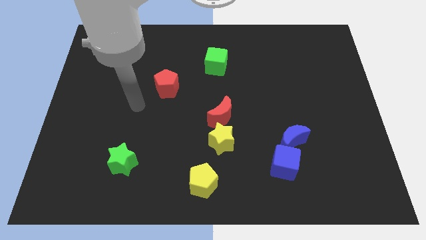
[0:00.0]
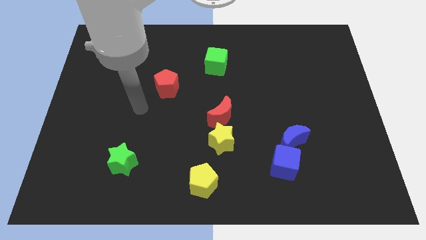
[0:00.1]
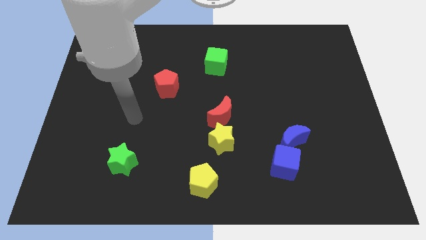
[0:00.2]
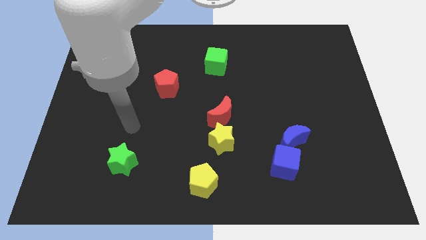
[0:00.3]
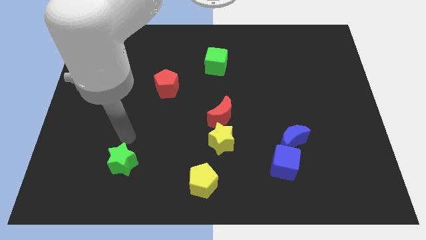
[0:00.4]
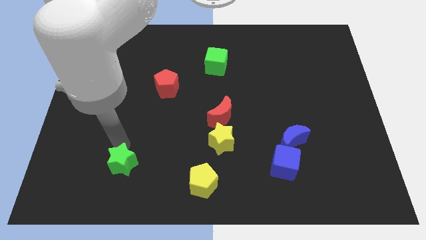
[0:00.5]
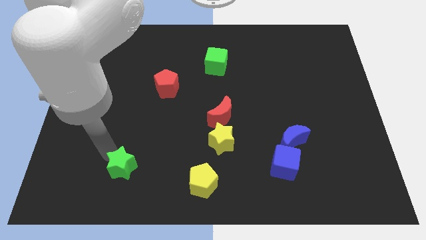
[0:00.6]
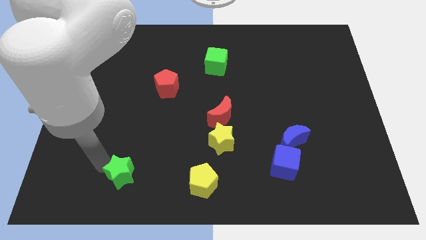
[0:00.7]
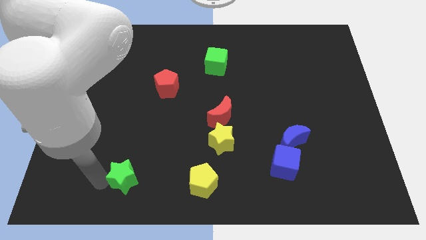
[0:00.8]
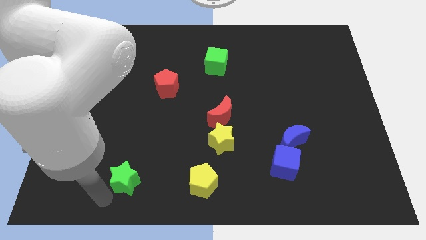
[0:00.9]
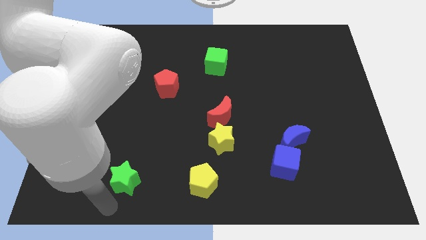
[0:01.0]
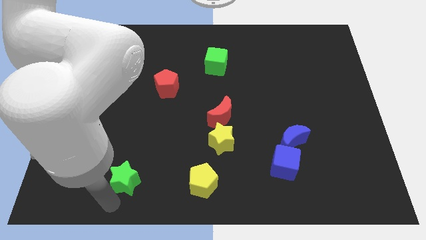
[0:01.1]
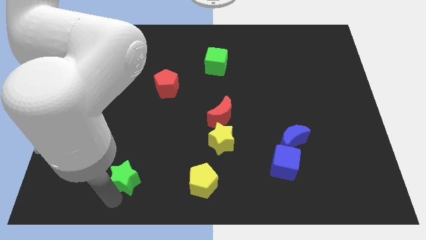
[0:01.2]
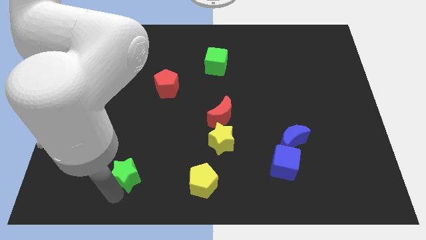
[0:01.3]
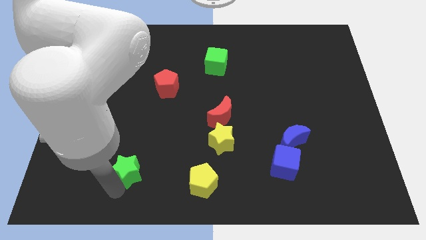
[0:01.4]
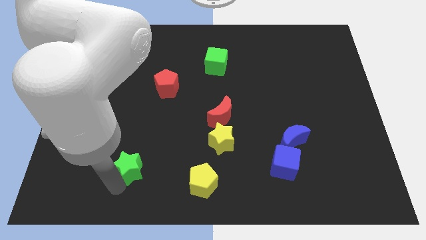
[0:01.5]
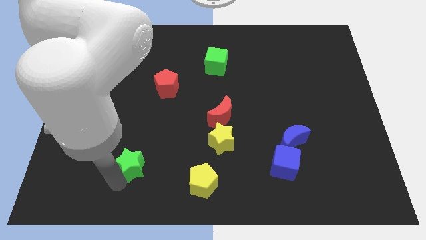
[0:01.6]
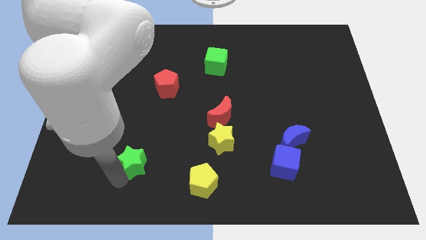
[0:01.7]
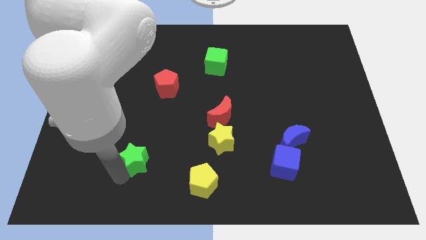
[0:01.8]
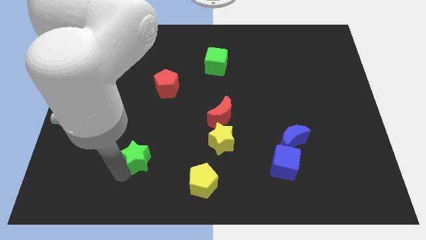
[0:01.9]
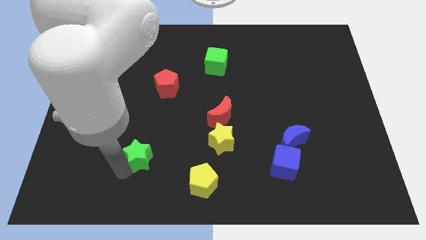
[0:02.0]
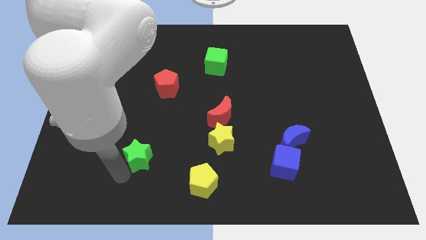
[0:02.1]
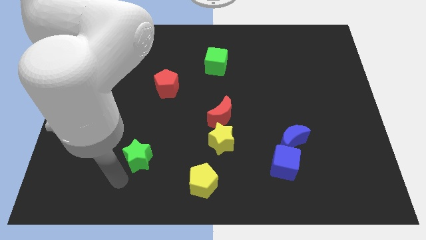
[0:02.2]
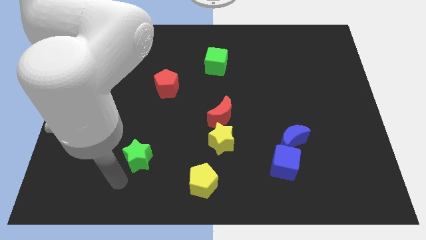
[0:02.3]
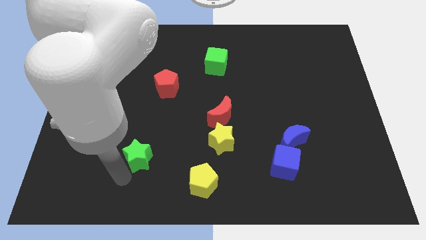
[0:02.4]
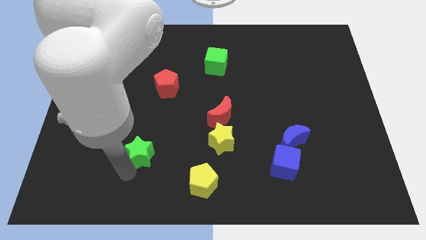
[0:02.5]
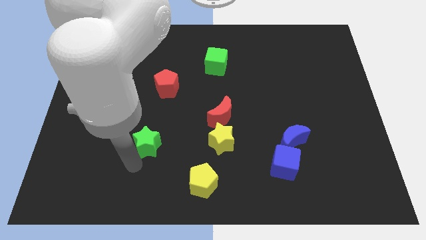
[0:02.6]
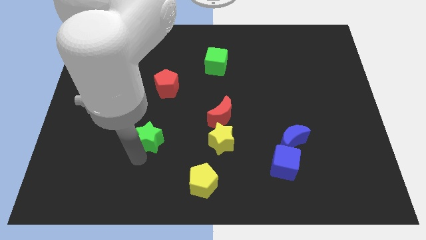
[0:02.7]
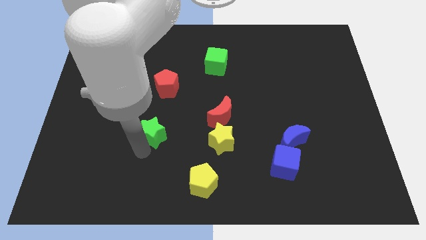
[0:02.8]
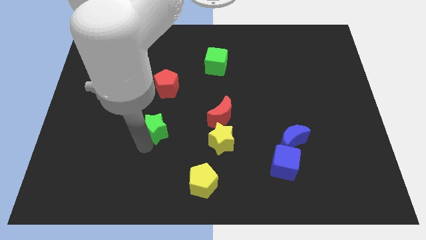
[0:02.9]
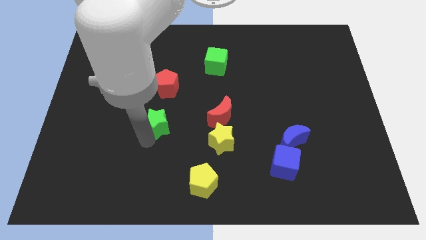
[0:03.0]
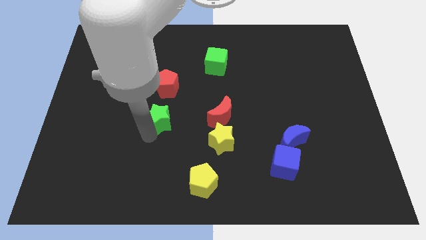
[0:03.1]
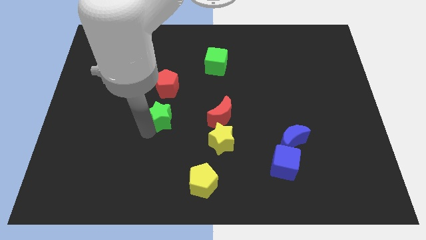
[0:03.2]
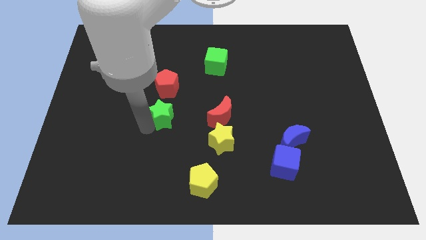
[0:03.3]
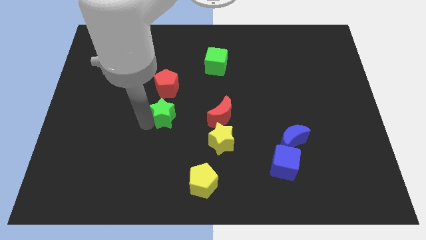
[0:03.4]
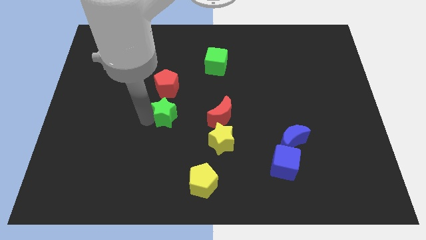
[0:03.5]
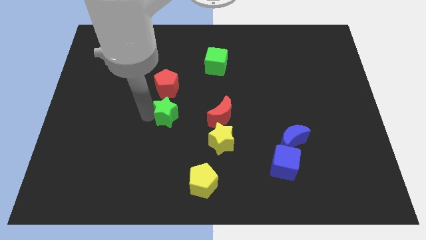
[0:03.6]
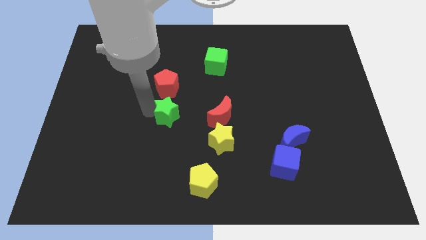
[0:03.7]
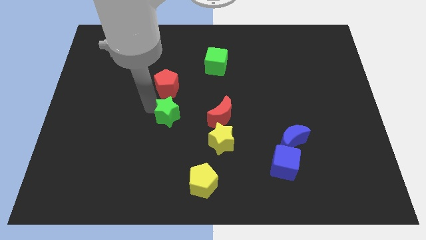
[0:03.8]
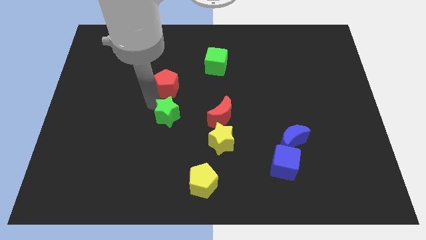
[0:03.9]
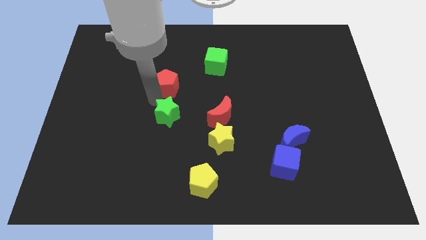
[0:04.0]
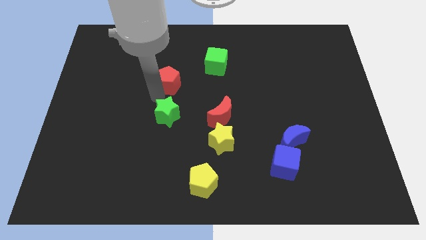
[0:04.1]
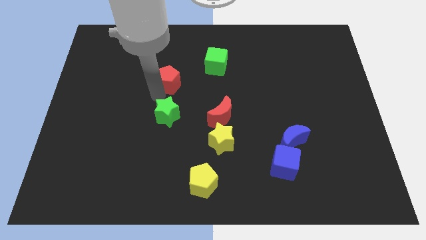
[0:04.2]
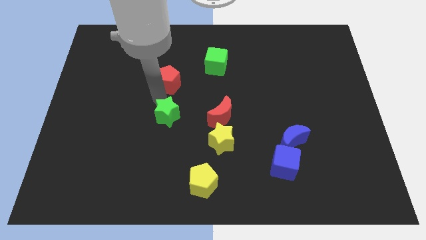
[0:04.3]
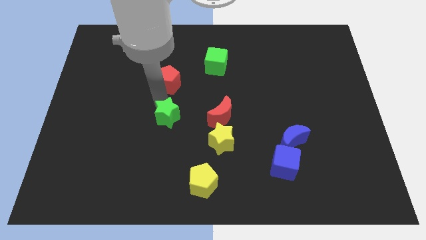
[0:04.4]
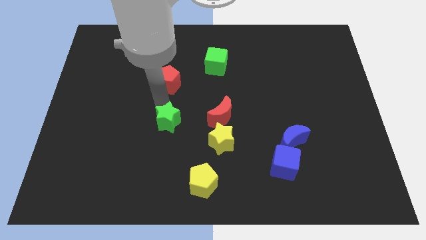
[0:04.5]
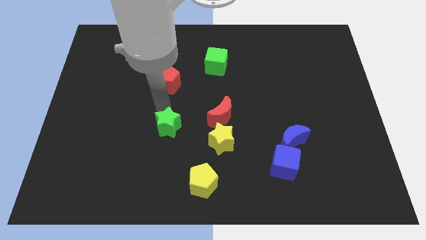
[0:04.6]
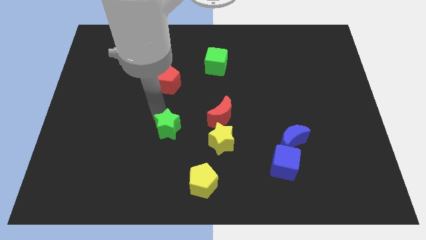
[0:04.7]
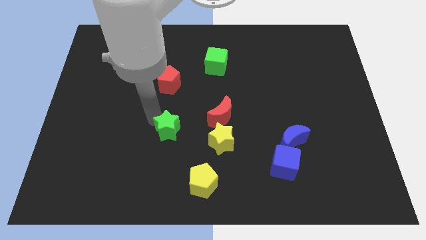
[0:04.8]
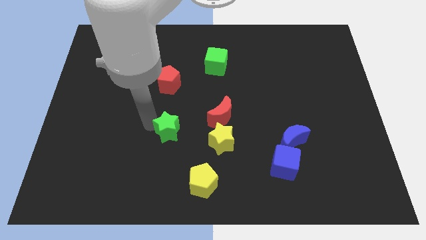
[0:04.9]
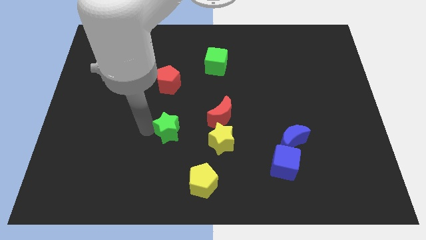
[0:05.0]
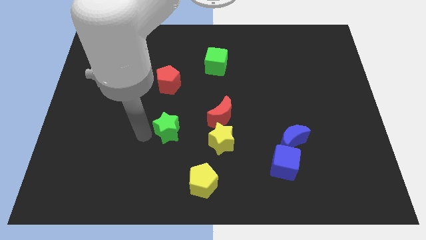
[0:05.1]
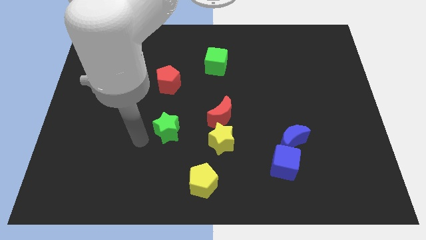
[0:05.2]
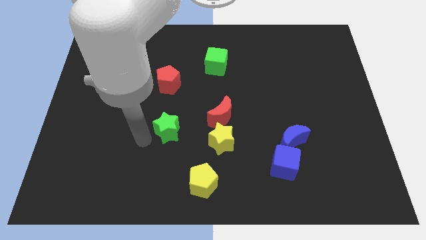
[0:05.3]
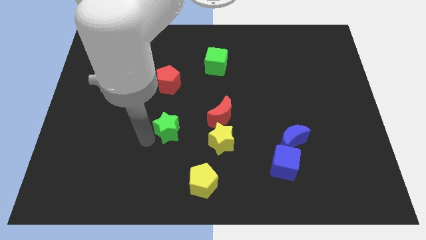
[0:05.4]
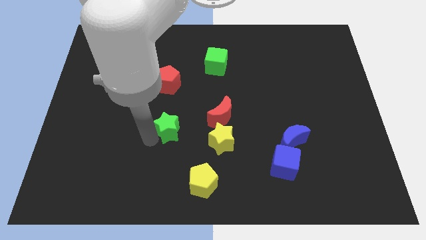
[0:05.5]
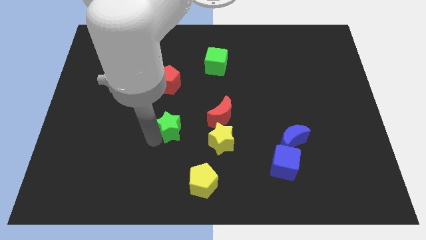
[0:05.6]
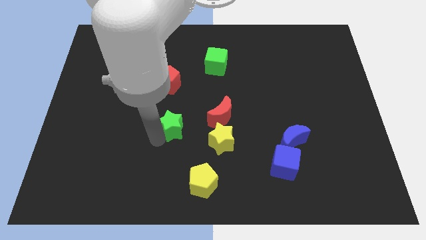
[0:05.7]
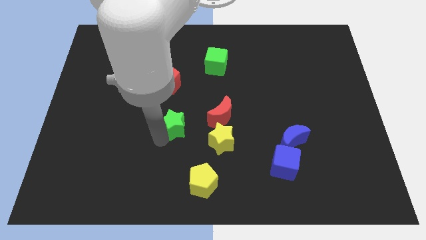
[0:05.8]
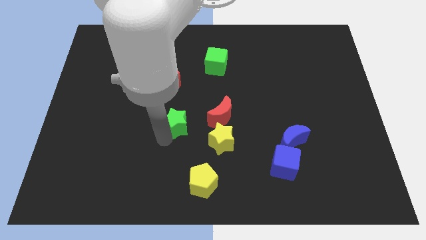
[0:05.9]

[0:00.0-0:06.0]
push the green star to the top left side of the yellow star

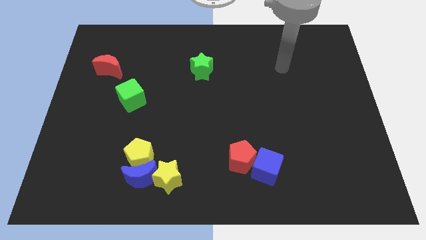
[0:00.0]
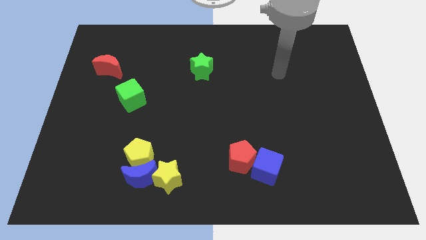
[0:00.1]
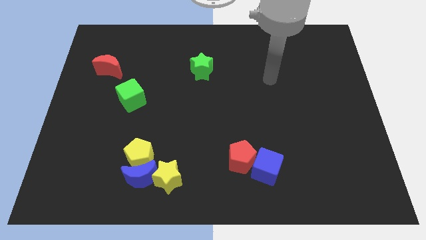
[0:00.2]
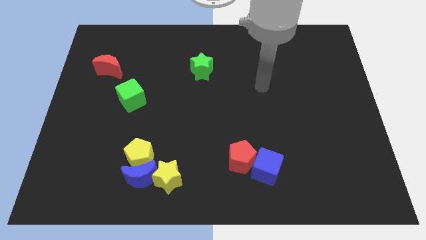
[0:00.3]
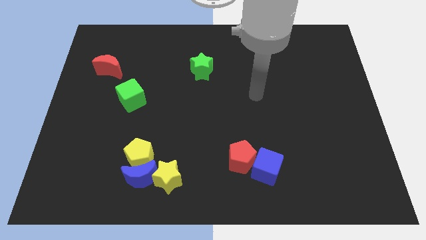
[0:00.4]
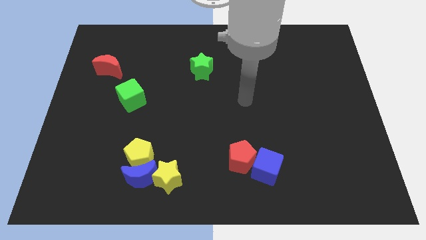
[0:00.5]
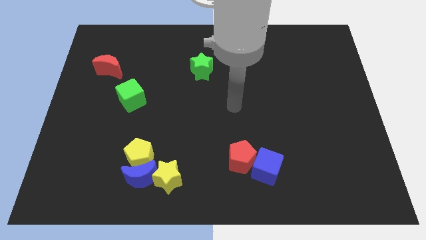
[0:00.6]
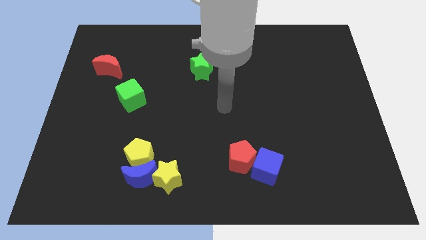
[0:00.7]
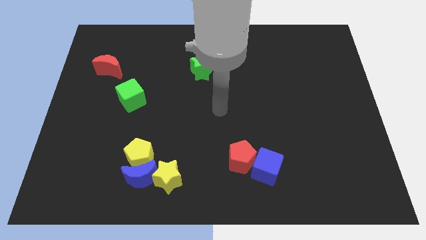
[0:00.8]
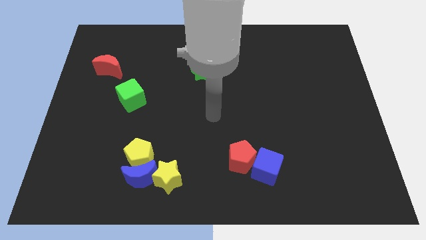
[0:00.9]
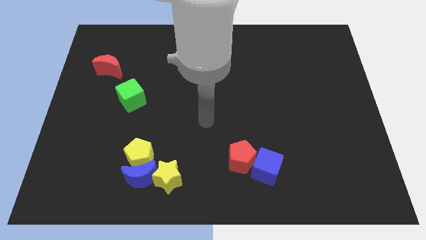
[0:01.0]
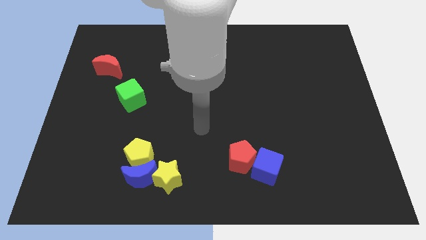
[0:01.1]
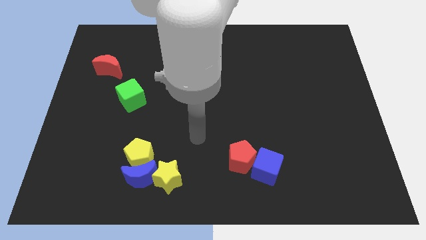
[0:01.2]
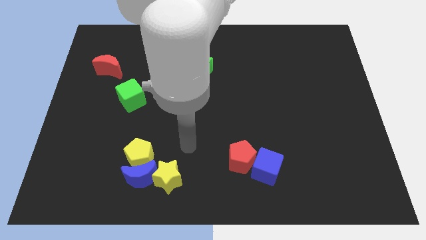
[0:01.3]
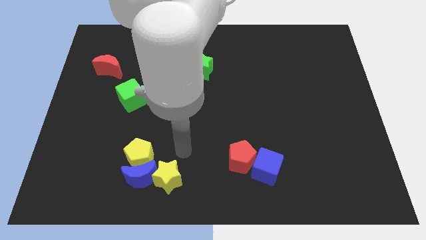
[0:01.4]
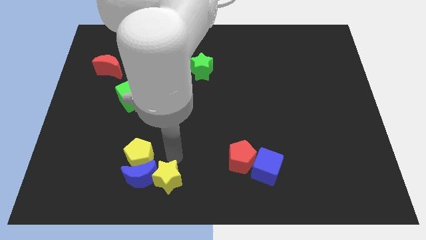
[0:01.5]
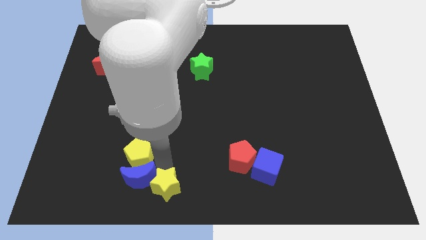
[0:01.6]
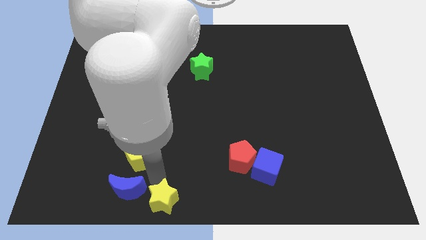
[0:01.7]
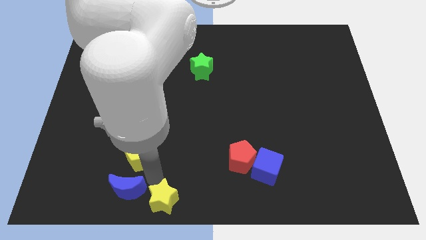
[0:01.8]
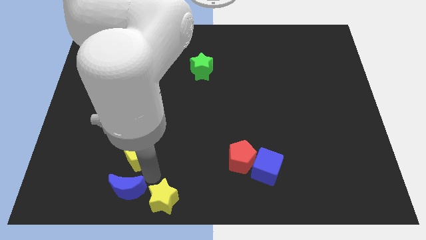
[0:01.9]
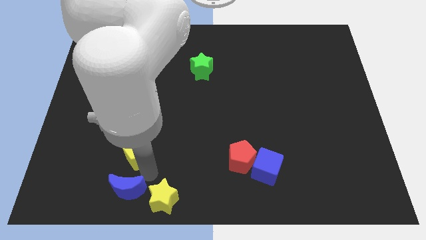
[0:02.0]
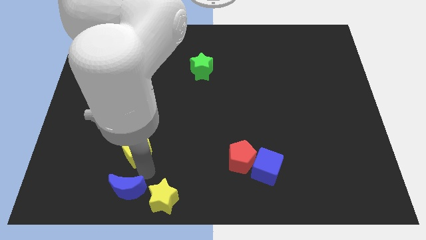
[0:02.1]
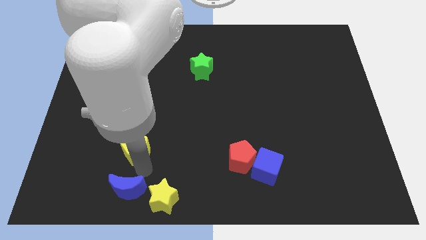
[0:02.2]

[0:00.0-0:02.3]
move the yellow pentagon below the green cube
